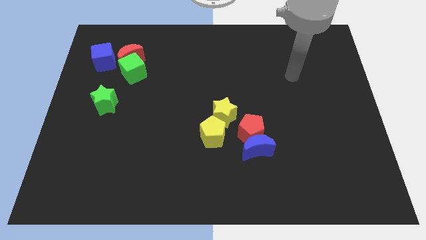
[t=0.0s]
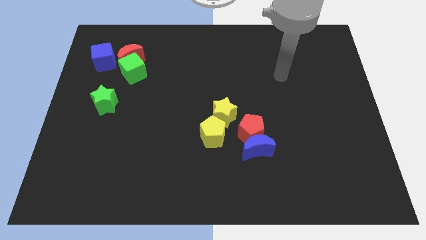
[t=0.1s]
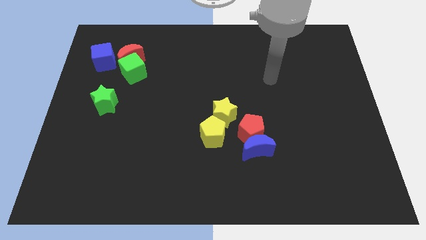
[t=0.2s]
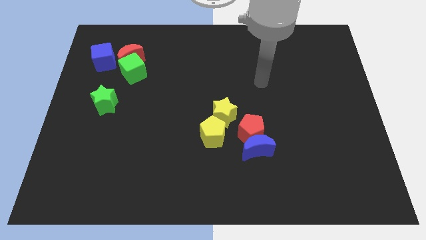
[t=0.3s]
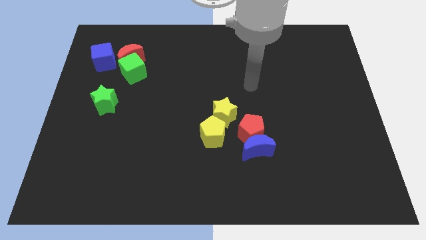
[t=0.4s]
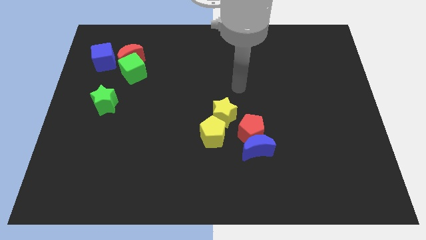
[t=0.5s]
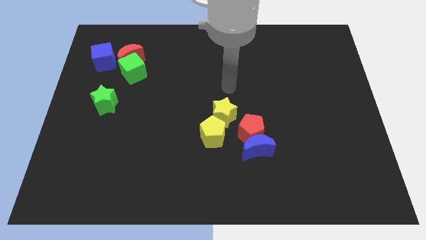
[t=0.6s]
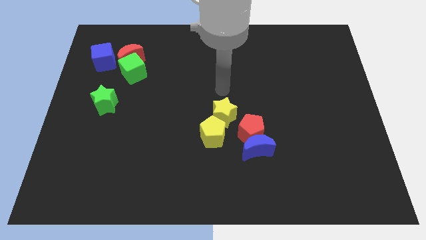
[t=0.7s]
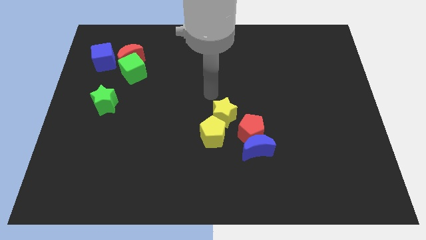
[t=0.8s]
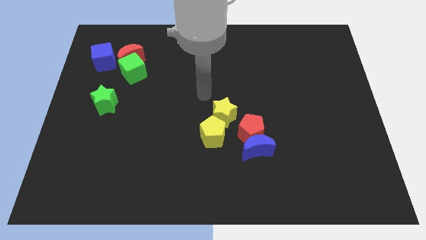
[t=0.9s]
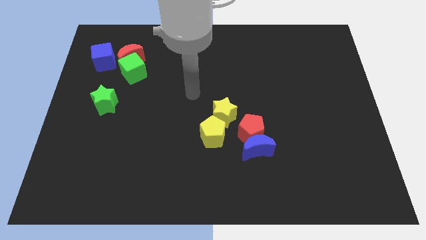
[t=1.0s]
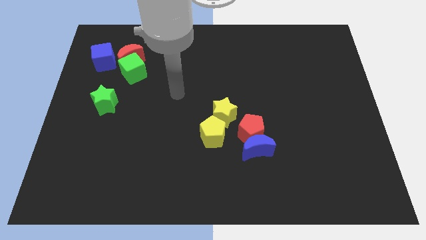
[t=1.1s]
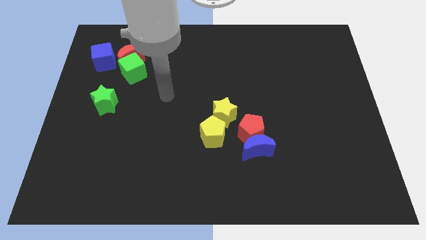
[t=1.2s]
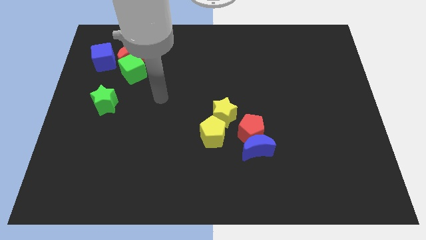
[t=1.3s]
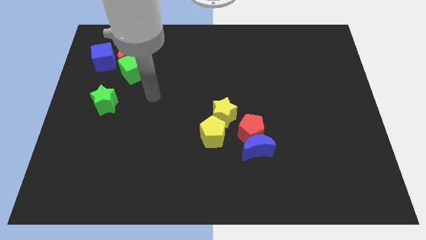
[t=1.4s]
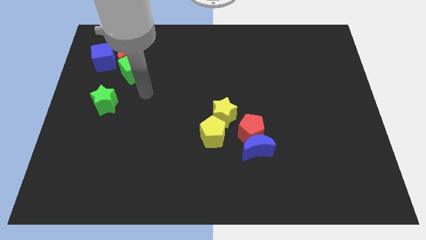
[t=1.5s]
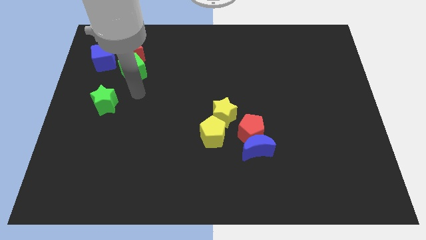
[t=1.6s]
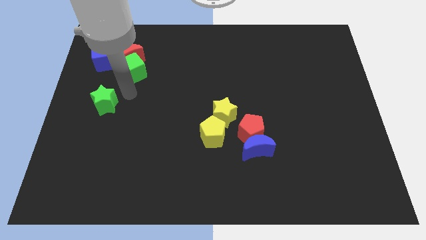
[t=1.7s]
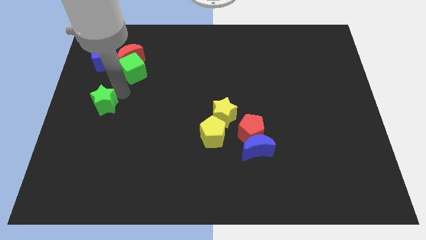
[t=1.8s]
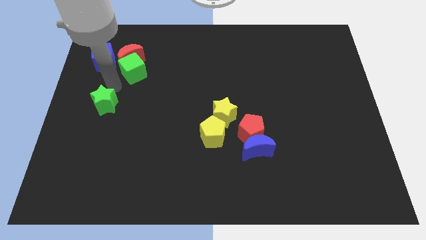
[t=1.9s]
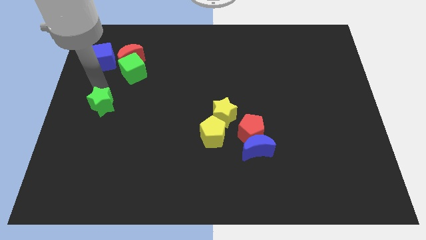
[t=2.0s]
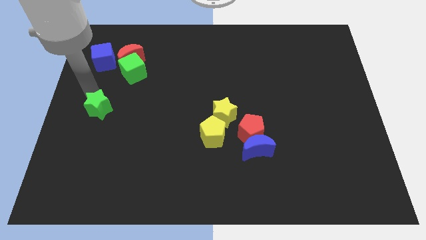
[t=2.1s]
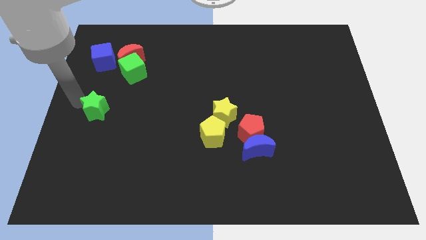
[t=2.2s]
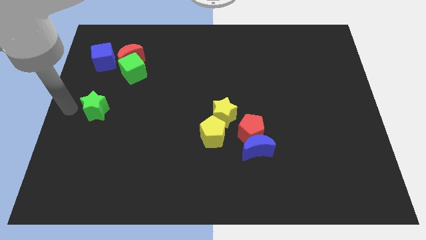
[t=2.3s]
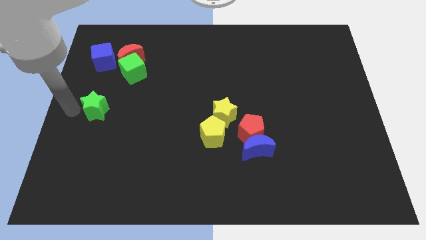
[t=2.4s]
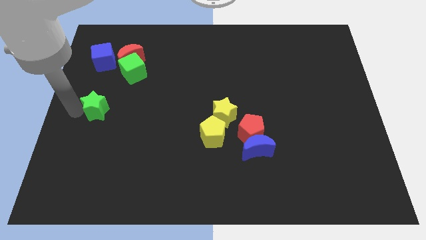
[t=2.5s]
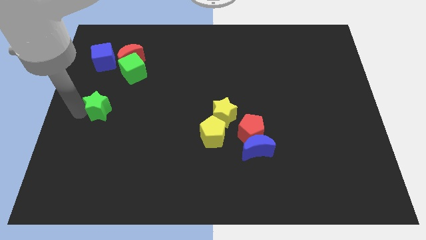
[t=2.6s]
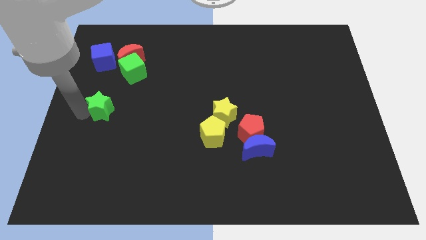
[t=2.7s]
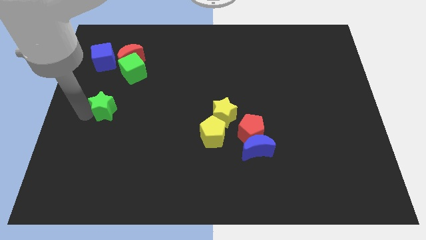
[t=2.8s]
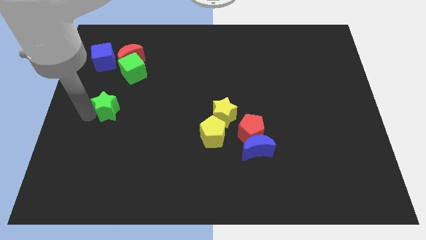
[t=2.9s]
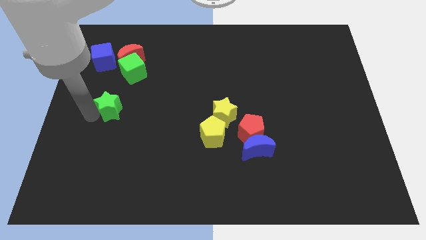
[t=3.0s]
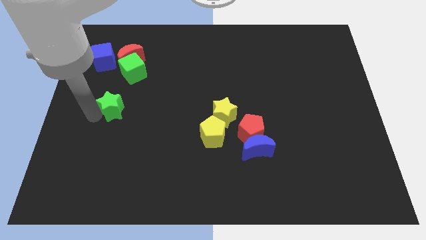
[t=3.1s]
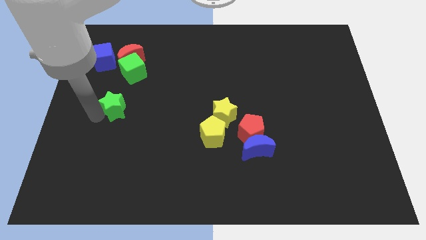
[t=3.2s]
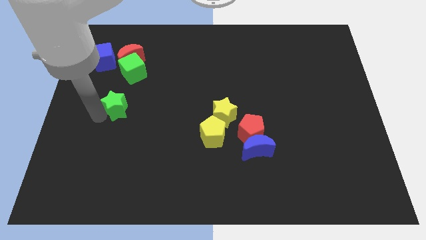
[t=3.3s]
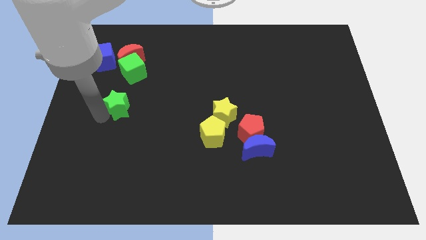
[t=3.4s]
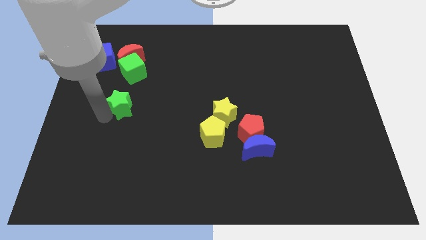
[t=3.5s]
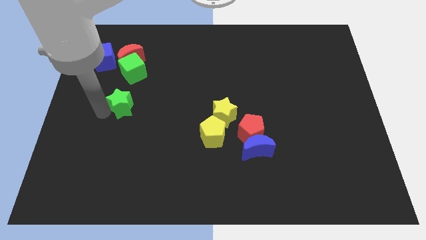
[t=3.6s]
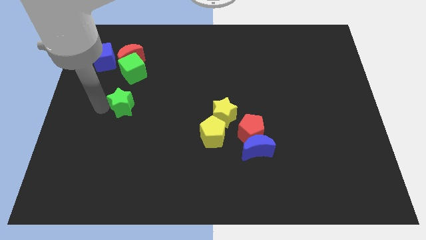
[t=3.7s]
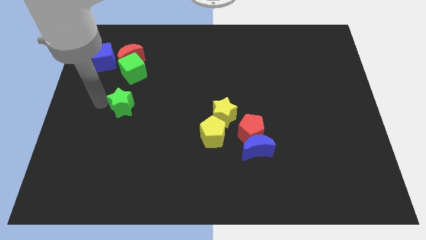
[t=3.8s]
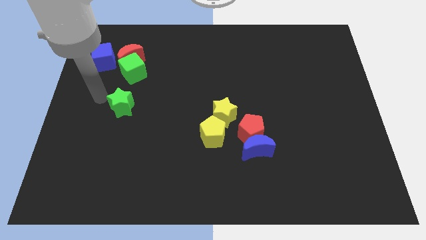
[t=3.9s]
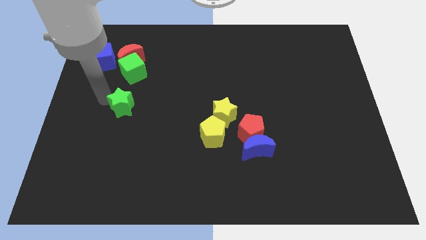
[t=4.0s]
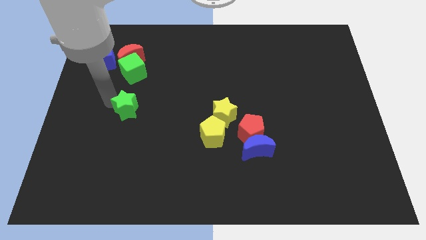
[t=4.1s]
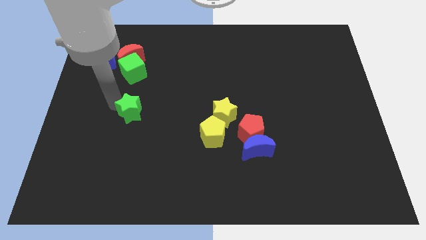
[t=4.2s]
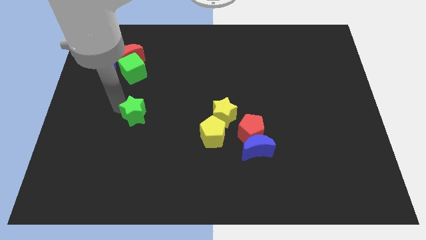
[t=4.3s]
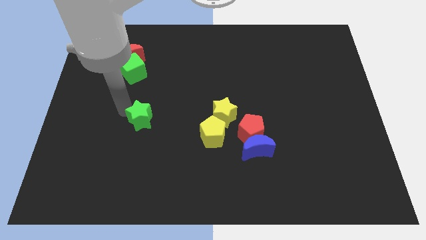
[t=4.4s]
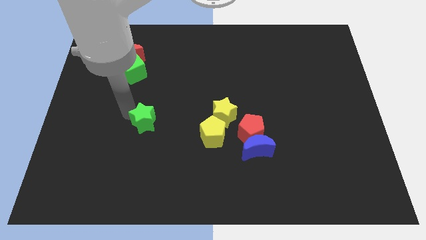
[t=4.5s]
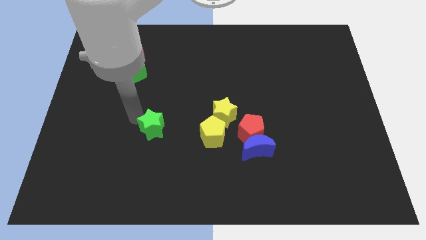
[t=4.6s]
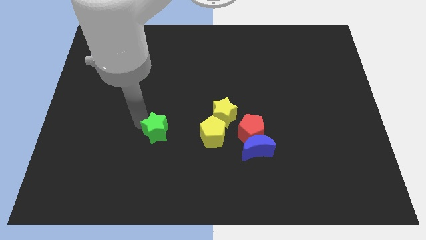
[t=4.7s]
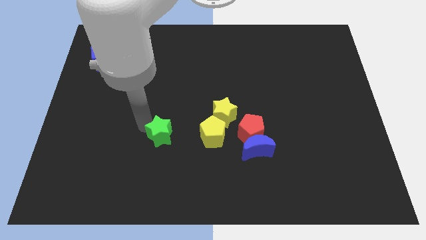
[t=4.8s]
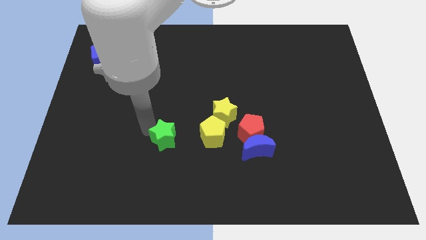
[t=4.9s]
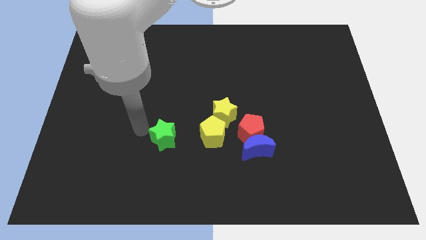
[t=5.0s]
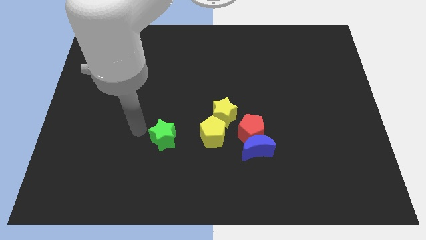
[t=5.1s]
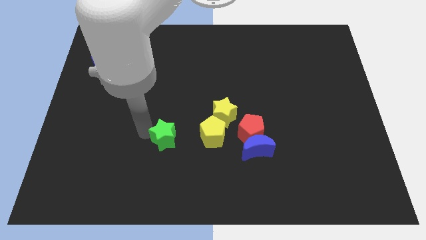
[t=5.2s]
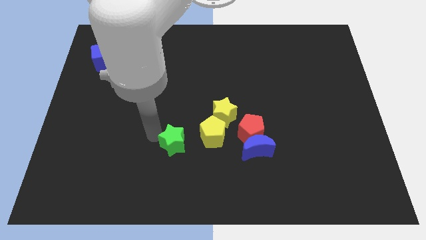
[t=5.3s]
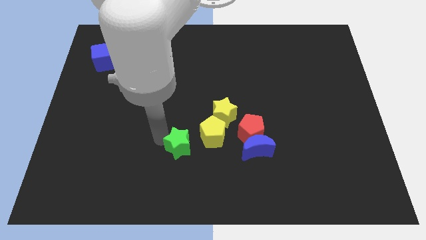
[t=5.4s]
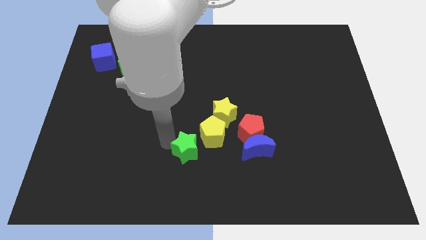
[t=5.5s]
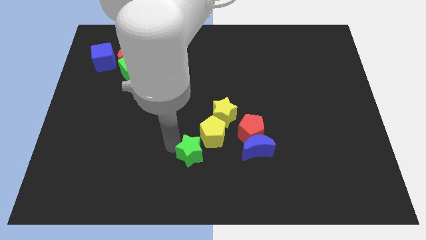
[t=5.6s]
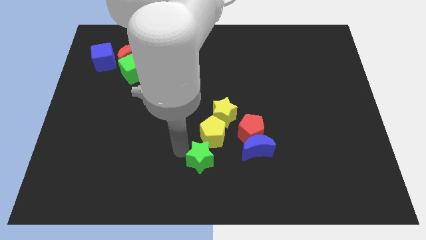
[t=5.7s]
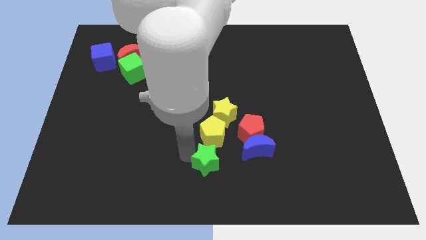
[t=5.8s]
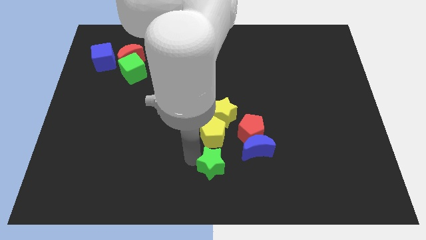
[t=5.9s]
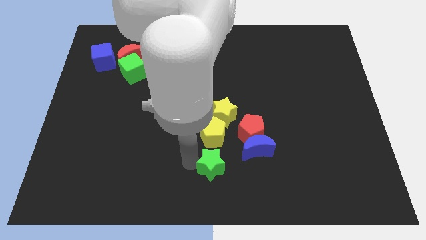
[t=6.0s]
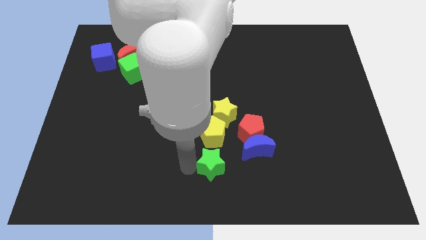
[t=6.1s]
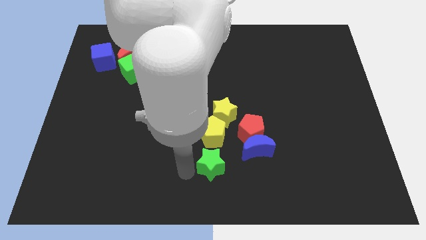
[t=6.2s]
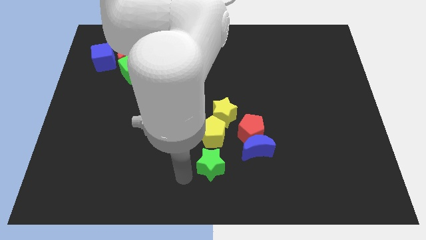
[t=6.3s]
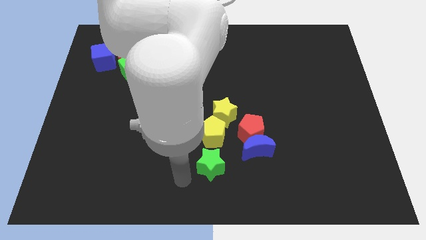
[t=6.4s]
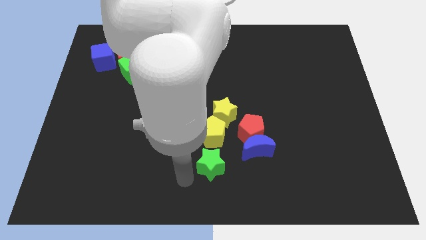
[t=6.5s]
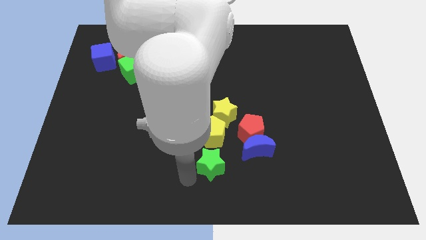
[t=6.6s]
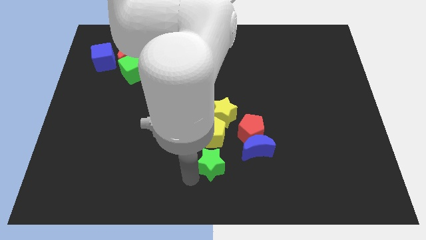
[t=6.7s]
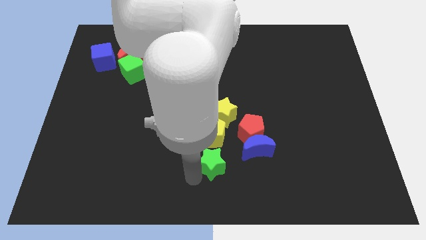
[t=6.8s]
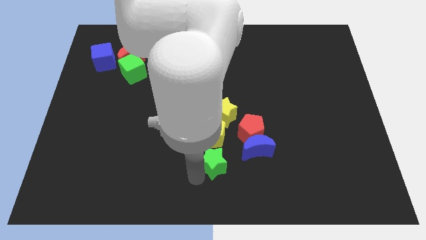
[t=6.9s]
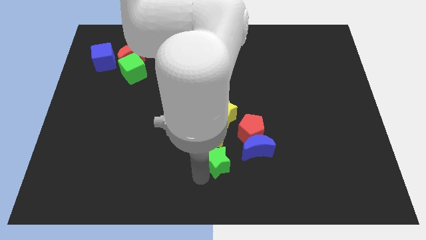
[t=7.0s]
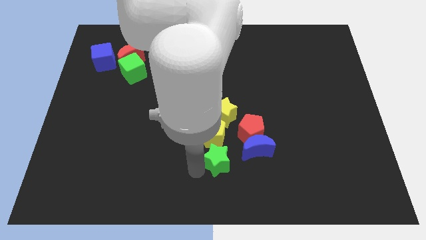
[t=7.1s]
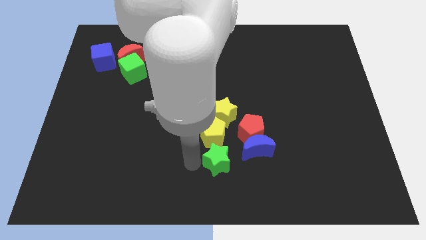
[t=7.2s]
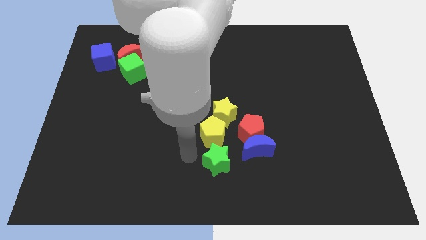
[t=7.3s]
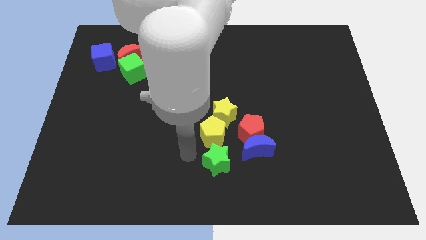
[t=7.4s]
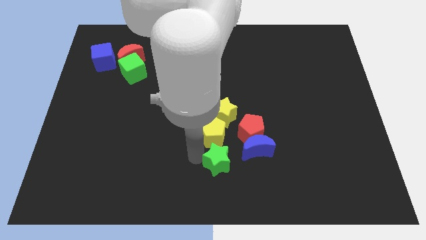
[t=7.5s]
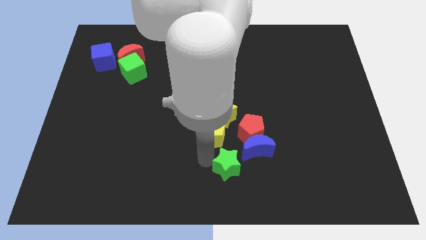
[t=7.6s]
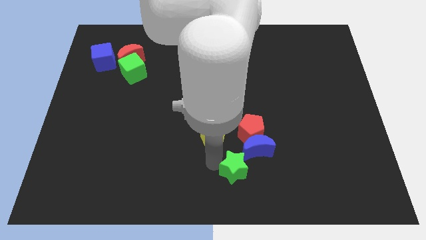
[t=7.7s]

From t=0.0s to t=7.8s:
move the green star to the bottom of the red pentagon
